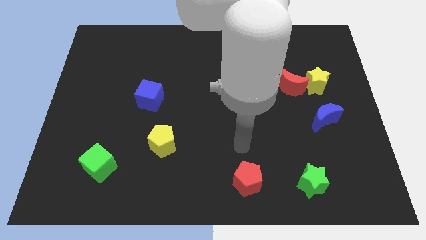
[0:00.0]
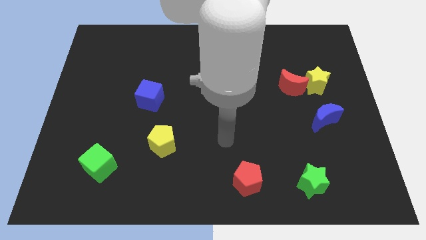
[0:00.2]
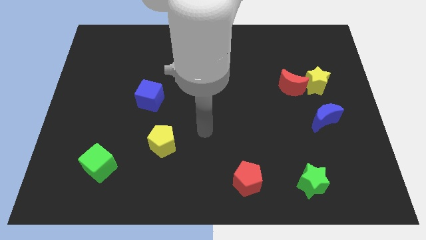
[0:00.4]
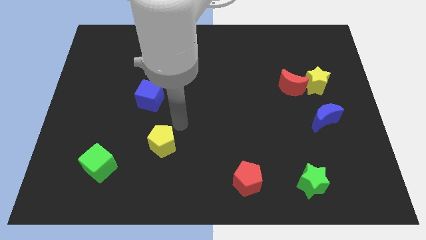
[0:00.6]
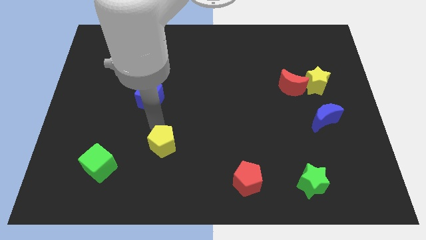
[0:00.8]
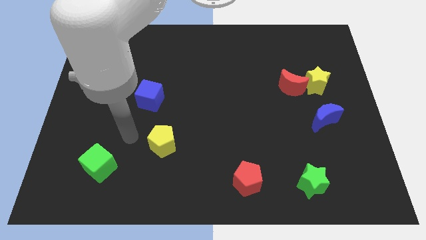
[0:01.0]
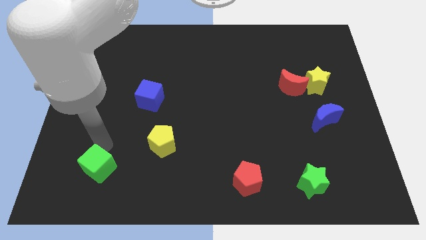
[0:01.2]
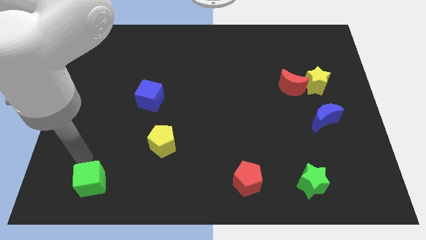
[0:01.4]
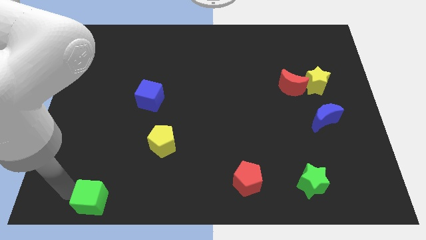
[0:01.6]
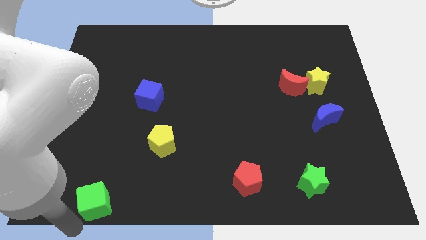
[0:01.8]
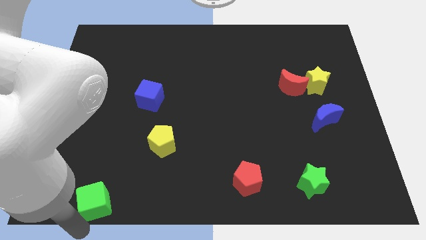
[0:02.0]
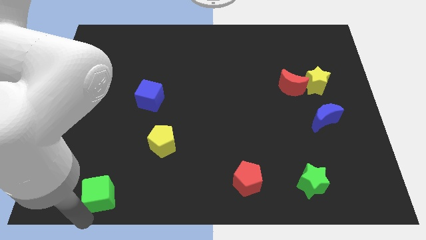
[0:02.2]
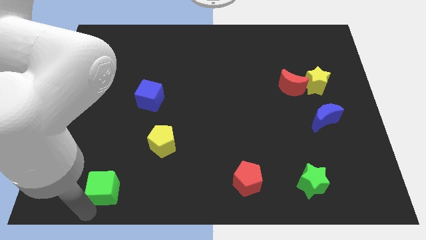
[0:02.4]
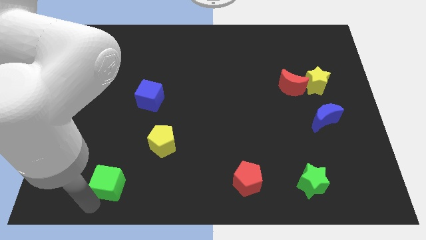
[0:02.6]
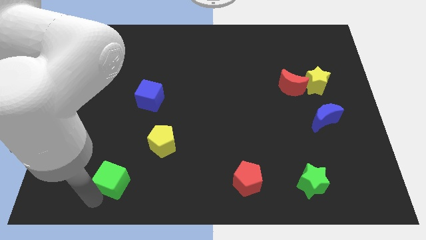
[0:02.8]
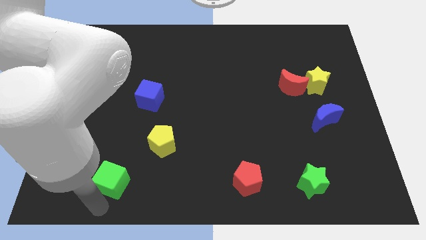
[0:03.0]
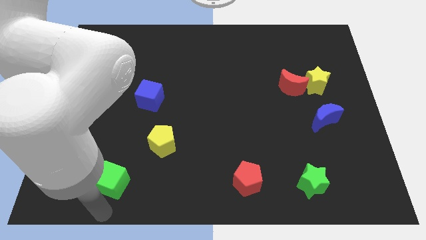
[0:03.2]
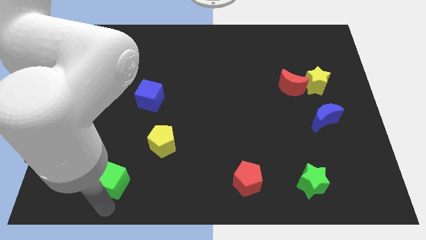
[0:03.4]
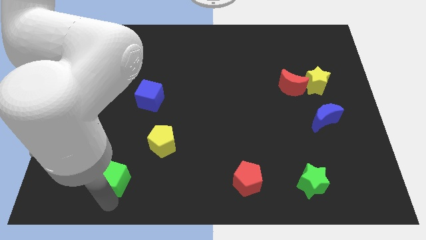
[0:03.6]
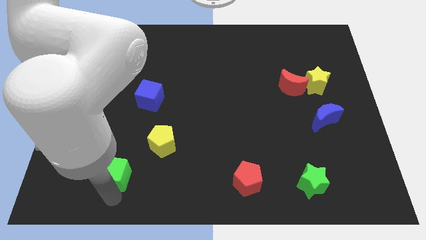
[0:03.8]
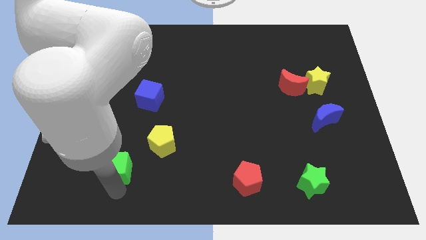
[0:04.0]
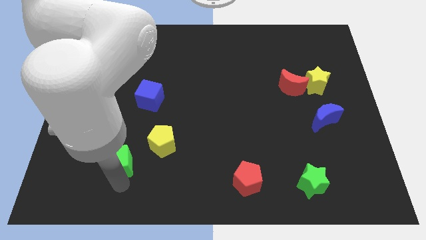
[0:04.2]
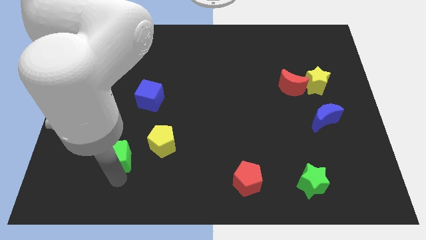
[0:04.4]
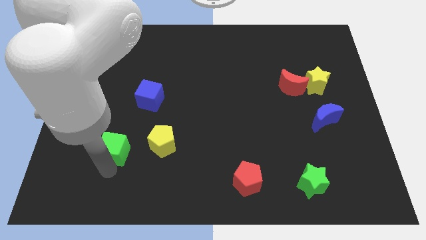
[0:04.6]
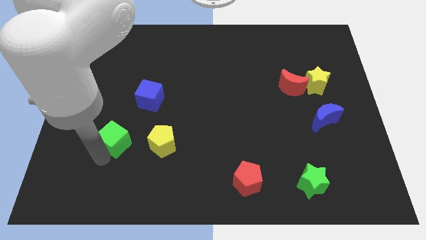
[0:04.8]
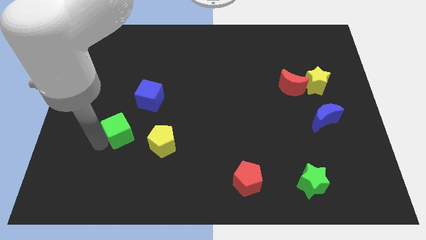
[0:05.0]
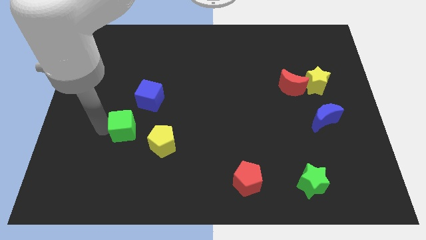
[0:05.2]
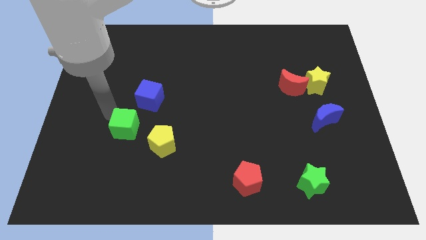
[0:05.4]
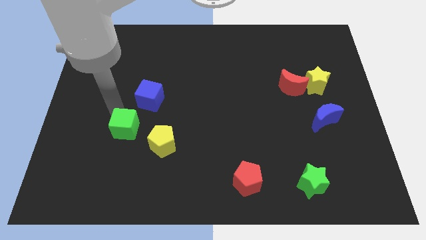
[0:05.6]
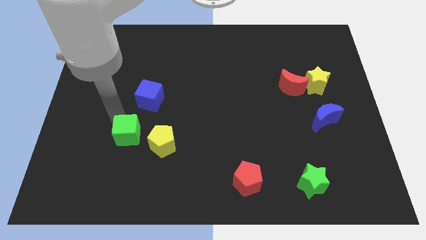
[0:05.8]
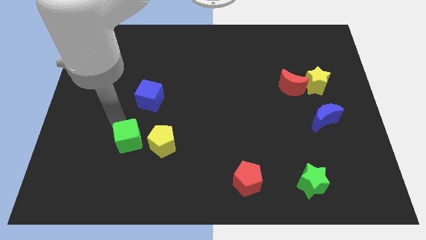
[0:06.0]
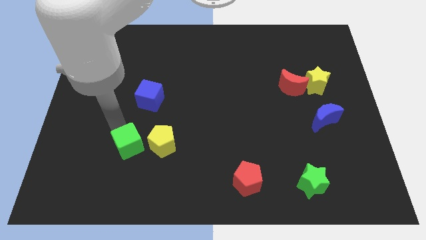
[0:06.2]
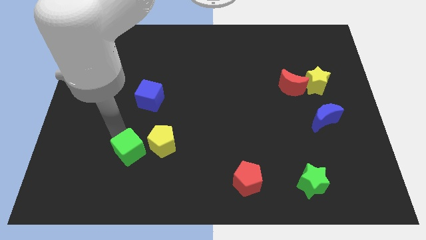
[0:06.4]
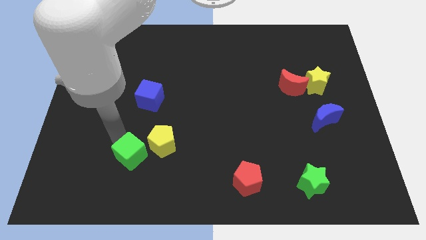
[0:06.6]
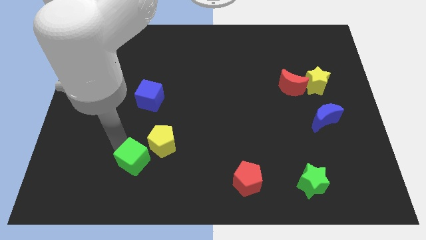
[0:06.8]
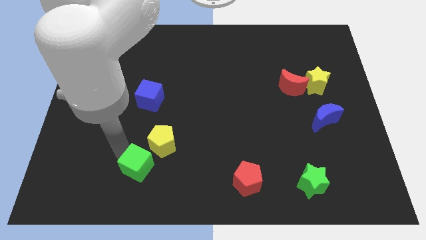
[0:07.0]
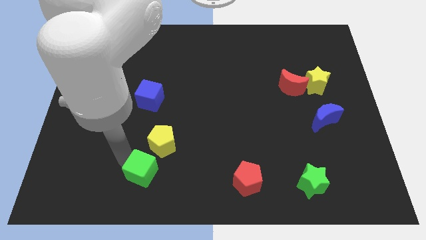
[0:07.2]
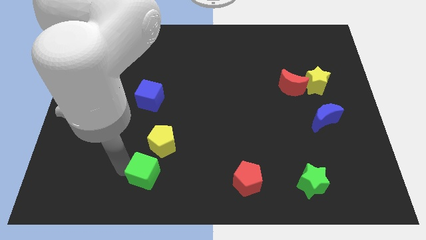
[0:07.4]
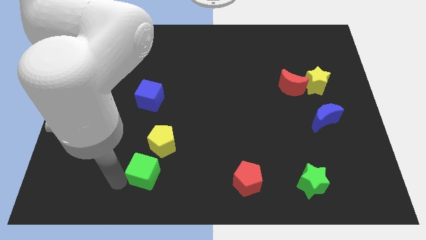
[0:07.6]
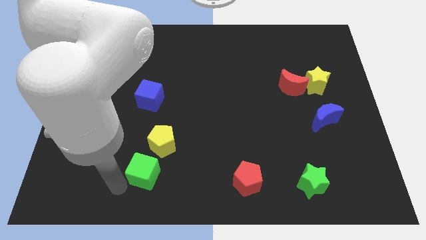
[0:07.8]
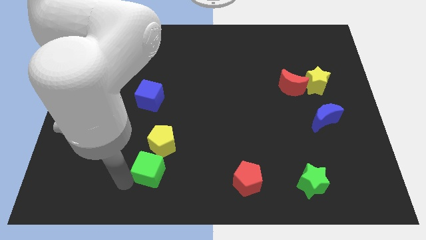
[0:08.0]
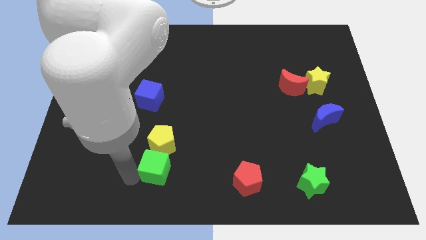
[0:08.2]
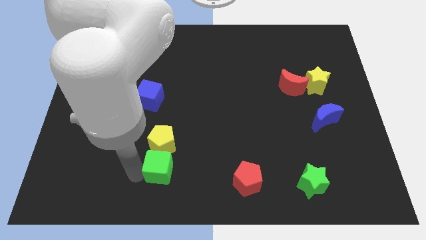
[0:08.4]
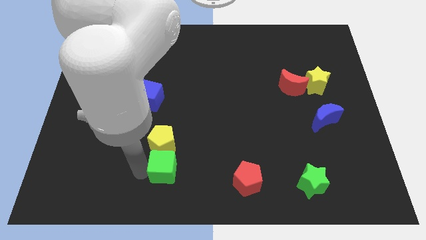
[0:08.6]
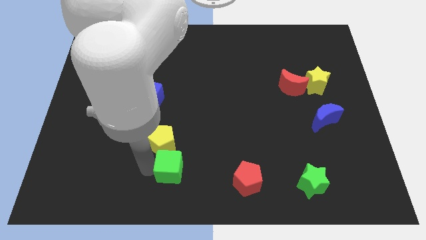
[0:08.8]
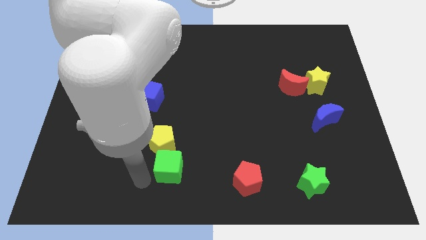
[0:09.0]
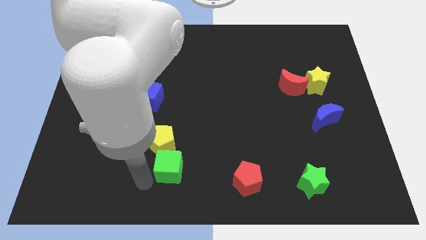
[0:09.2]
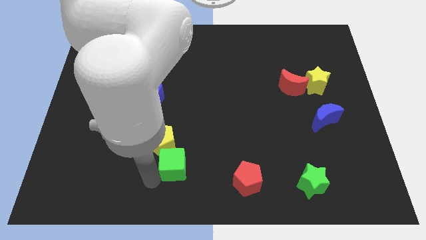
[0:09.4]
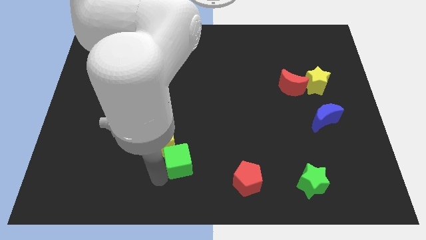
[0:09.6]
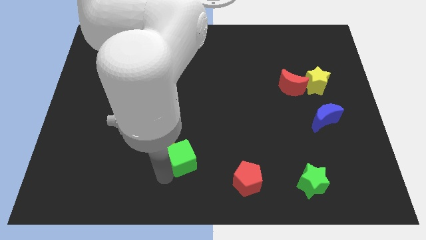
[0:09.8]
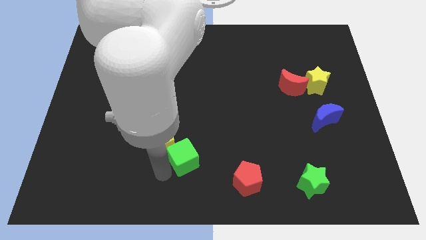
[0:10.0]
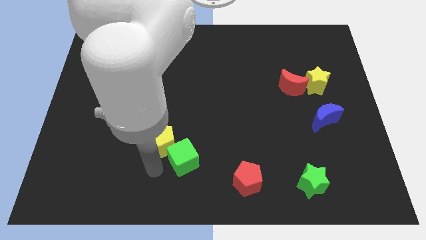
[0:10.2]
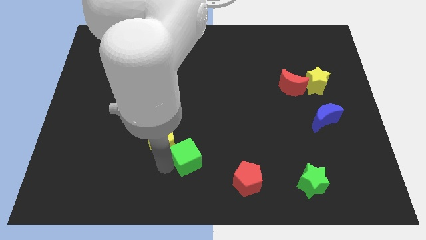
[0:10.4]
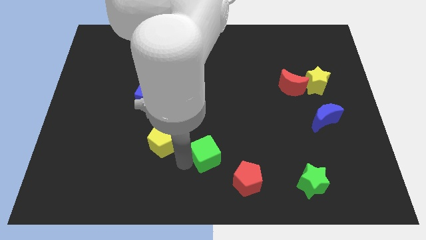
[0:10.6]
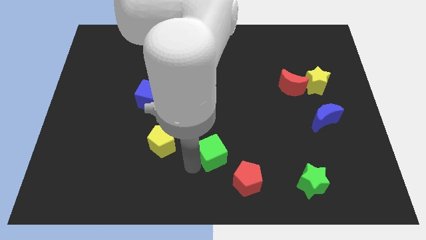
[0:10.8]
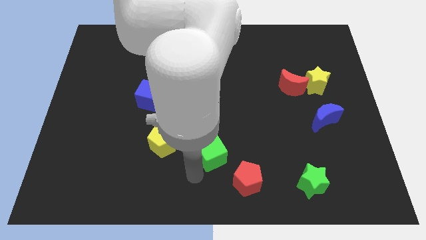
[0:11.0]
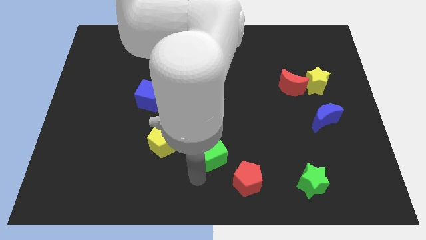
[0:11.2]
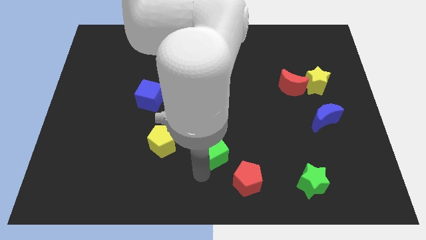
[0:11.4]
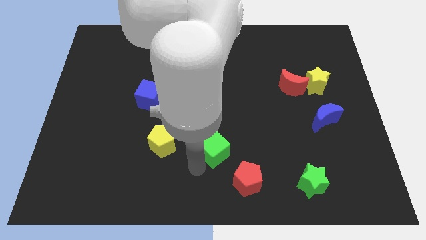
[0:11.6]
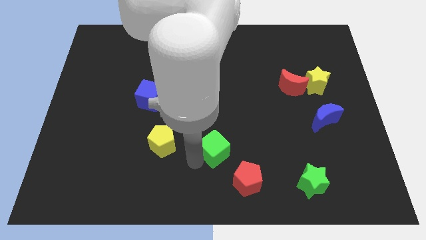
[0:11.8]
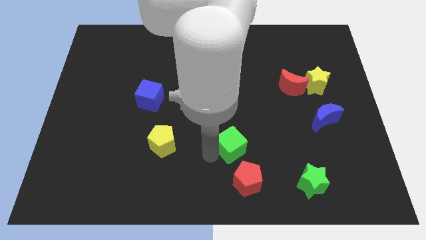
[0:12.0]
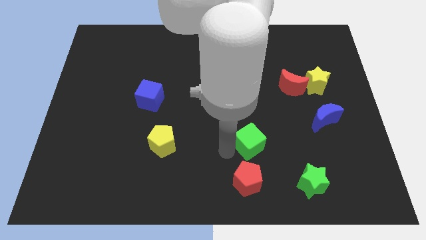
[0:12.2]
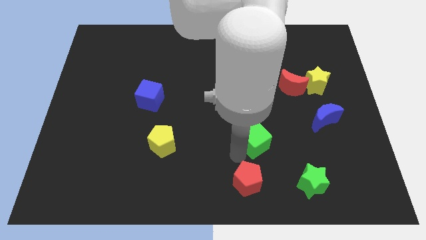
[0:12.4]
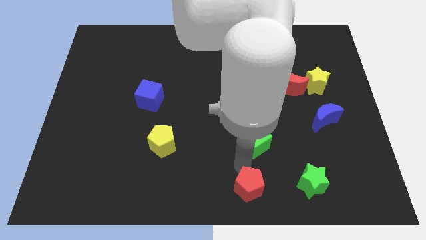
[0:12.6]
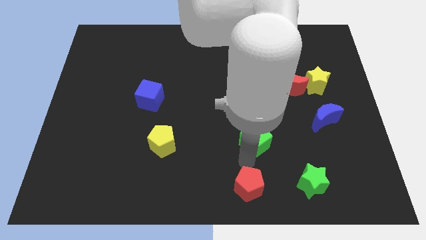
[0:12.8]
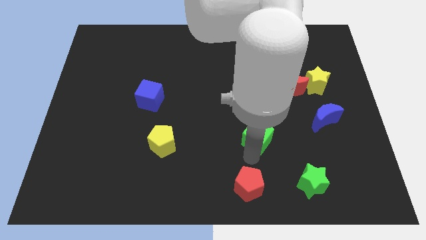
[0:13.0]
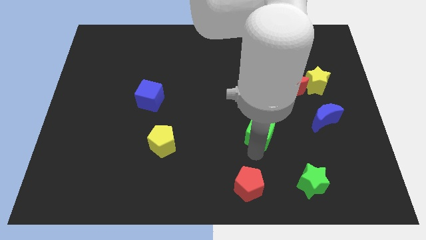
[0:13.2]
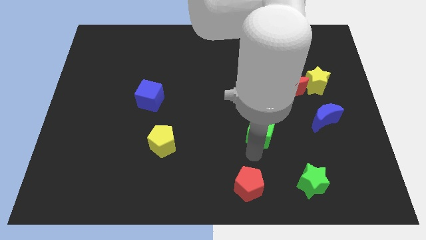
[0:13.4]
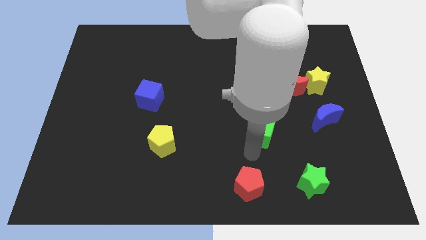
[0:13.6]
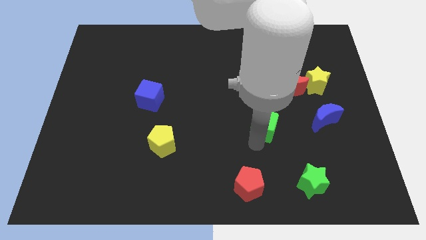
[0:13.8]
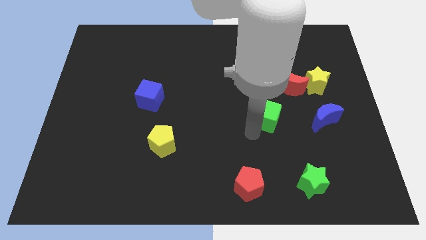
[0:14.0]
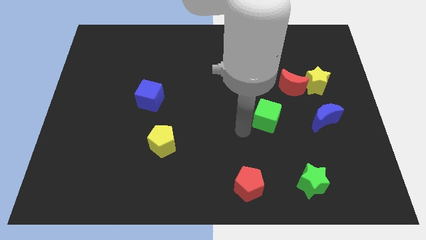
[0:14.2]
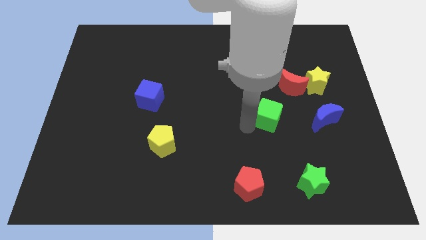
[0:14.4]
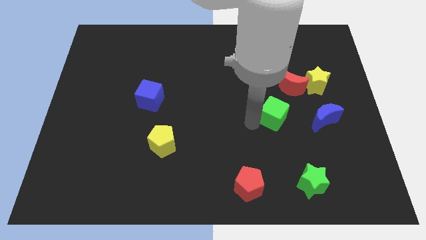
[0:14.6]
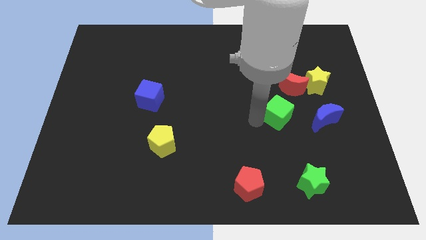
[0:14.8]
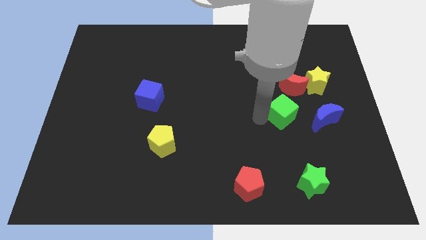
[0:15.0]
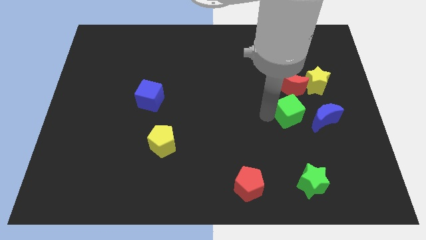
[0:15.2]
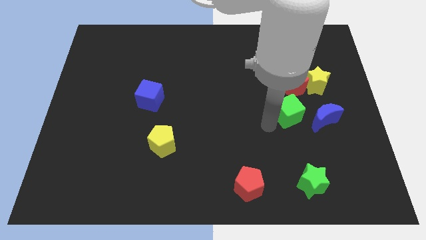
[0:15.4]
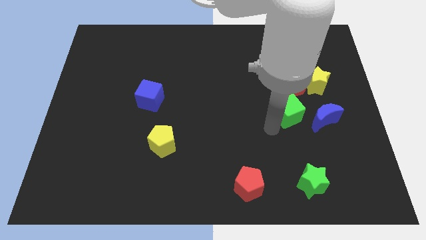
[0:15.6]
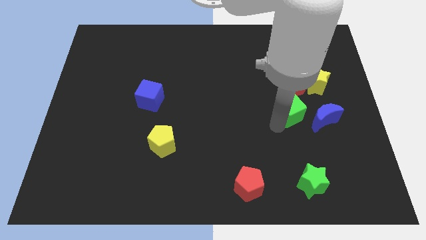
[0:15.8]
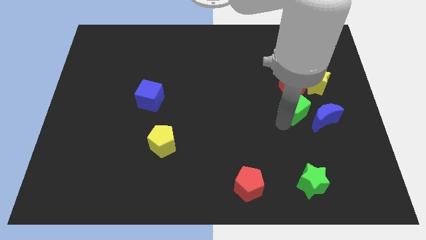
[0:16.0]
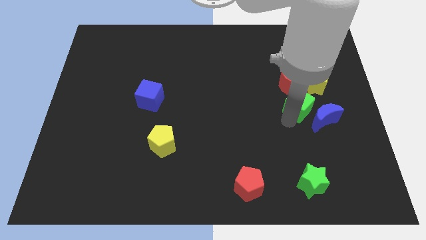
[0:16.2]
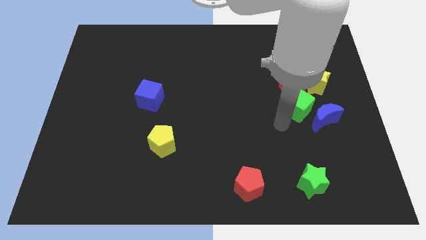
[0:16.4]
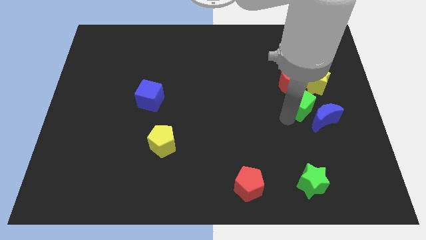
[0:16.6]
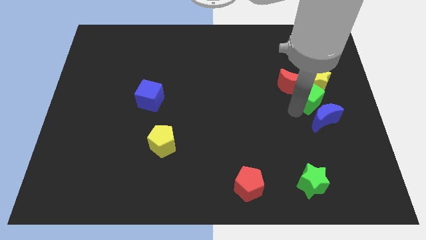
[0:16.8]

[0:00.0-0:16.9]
push the green cube to the yellow star
